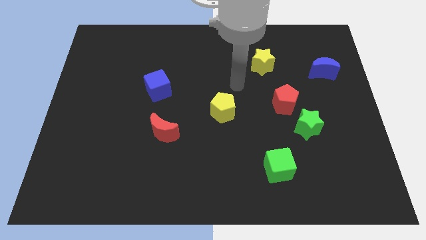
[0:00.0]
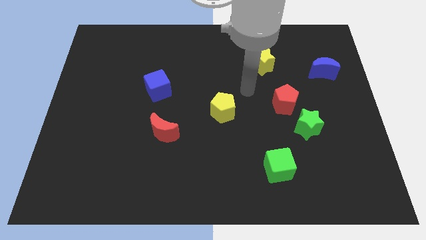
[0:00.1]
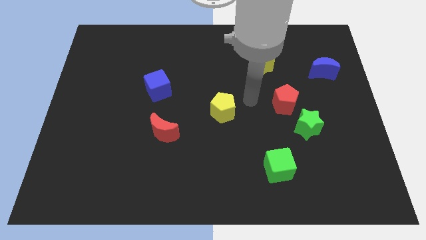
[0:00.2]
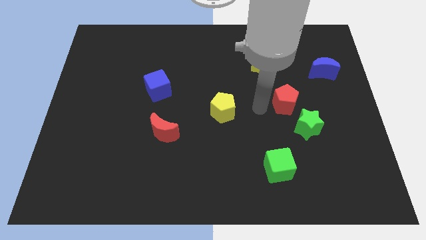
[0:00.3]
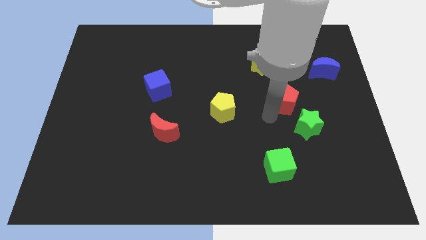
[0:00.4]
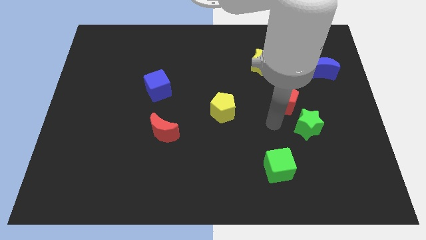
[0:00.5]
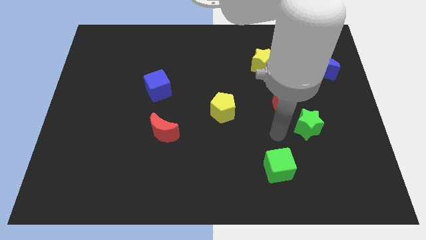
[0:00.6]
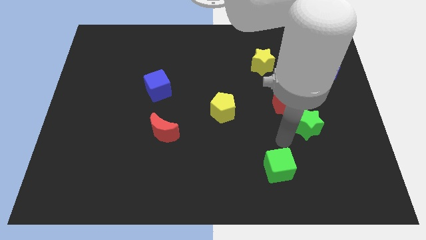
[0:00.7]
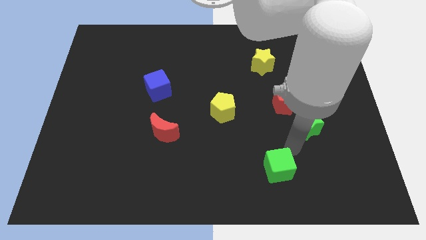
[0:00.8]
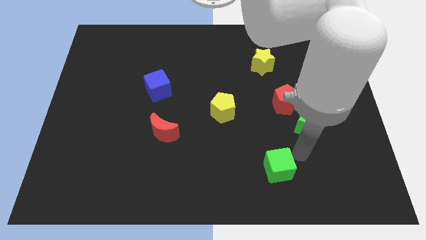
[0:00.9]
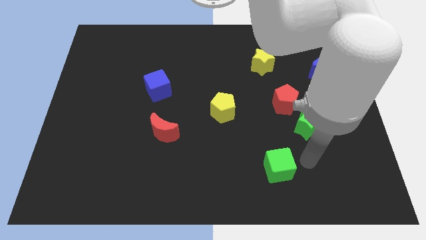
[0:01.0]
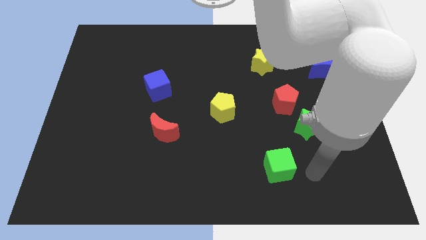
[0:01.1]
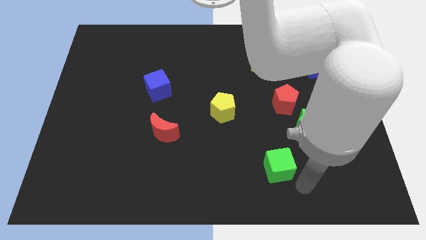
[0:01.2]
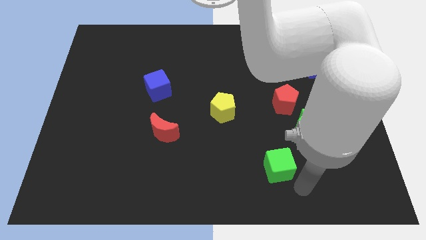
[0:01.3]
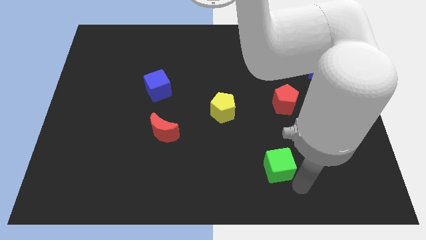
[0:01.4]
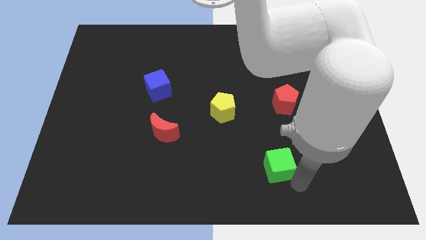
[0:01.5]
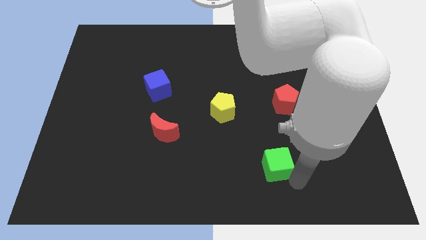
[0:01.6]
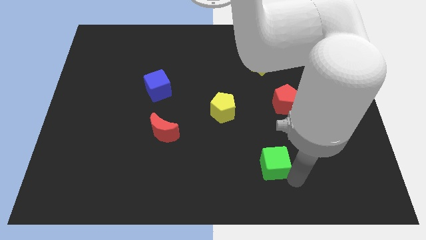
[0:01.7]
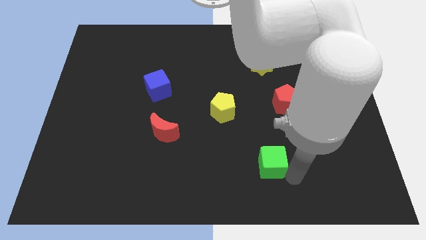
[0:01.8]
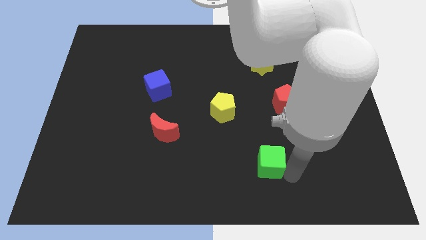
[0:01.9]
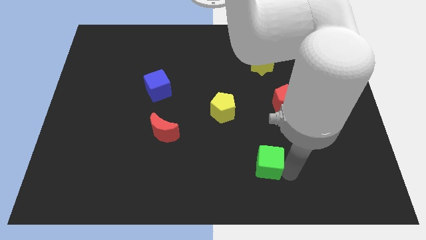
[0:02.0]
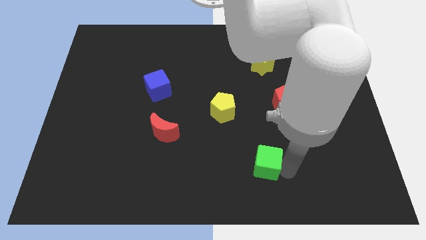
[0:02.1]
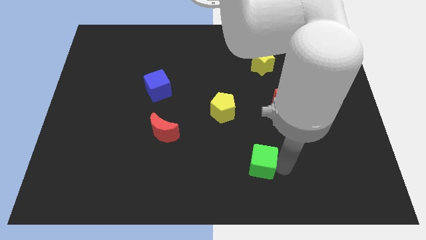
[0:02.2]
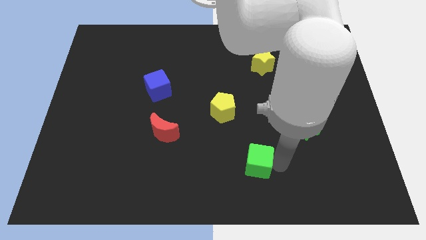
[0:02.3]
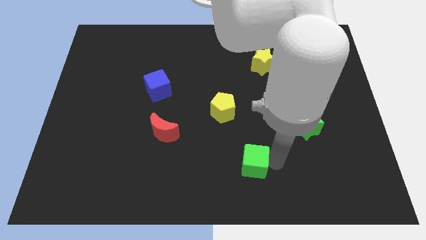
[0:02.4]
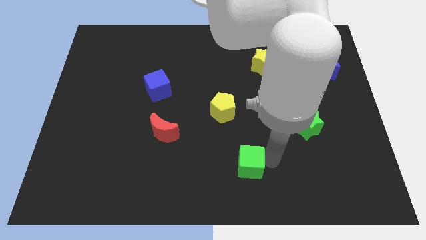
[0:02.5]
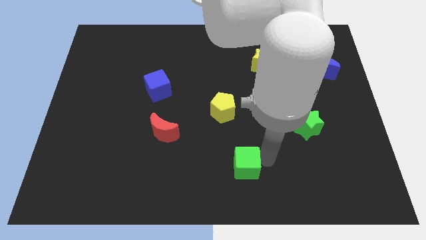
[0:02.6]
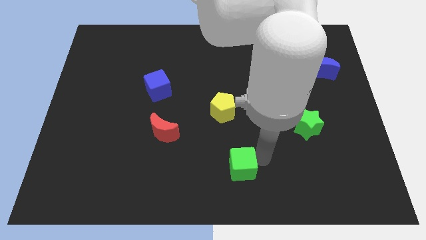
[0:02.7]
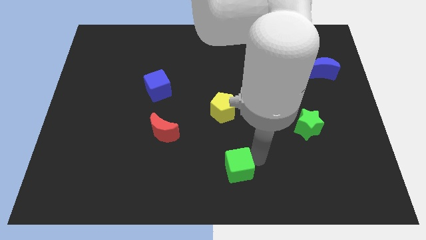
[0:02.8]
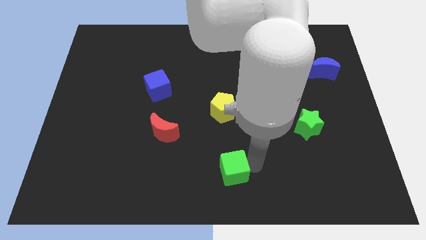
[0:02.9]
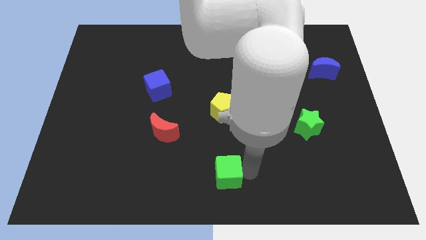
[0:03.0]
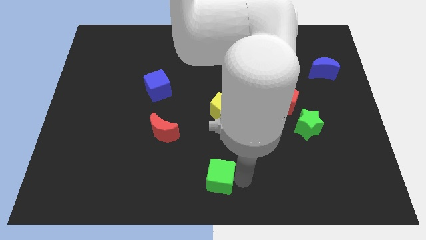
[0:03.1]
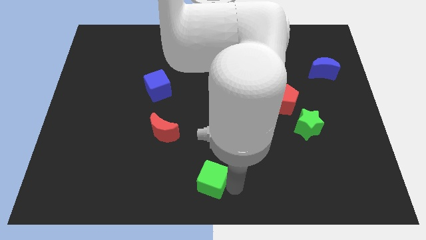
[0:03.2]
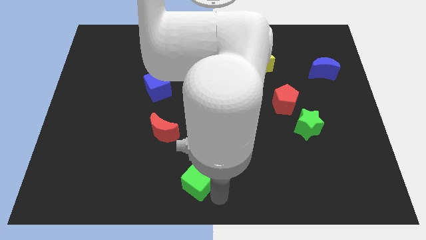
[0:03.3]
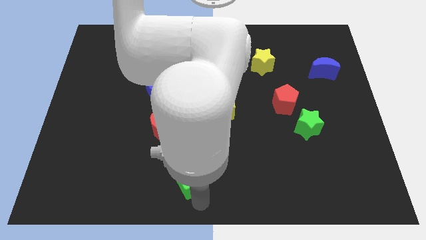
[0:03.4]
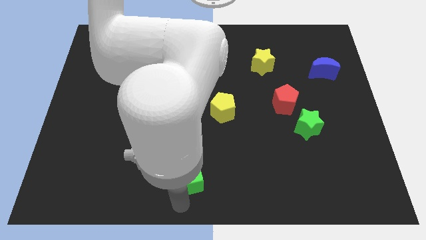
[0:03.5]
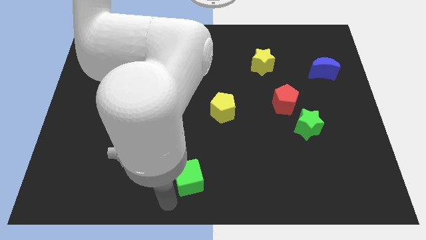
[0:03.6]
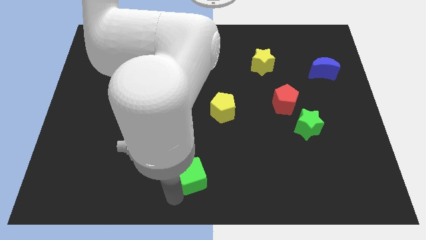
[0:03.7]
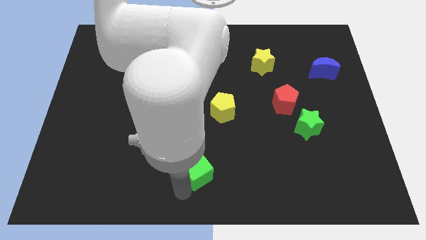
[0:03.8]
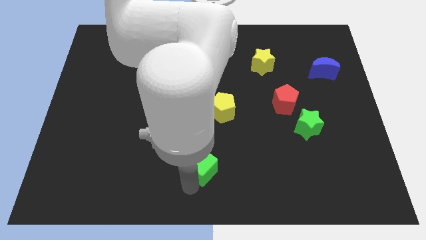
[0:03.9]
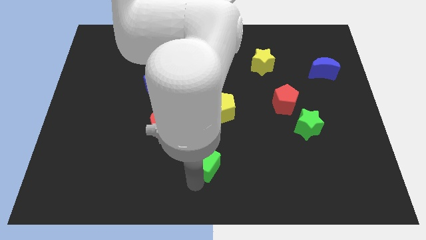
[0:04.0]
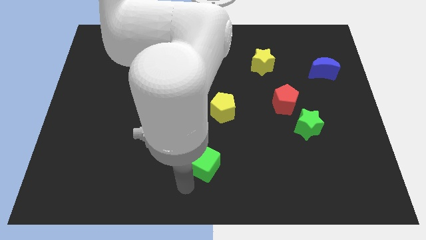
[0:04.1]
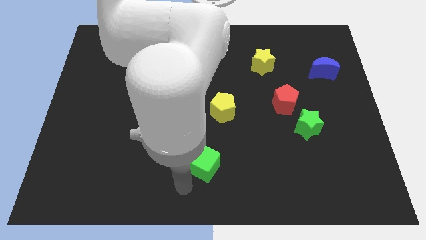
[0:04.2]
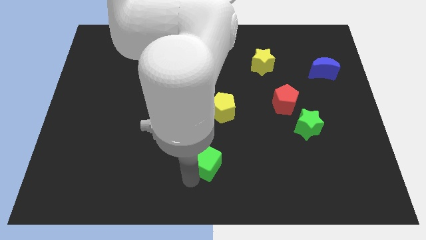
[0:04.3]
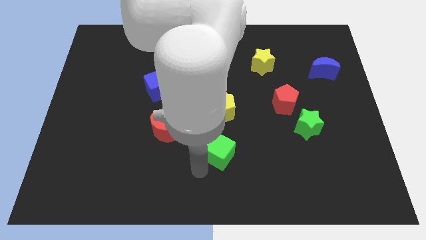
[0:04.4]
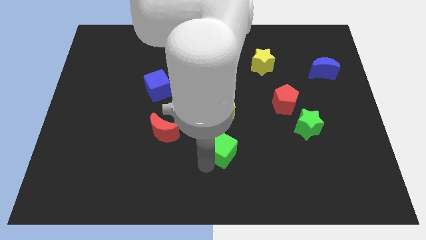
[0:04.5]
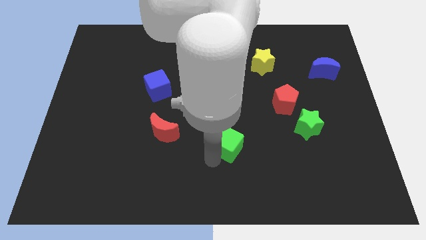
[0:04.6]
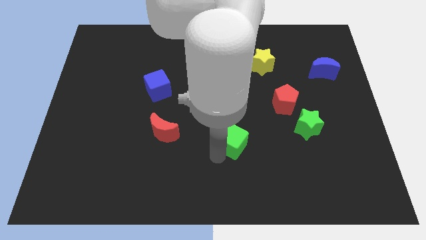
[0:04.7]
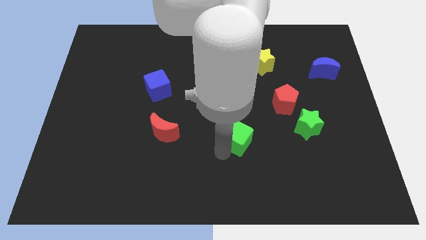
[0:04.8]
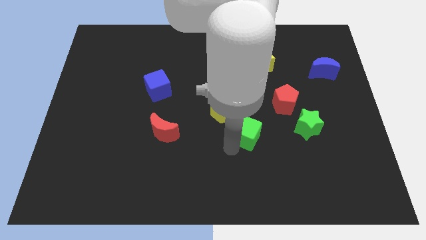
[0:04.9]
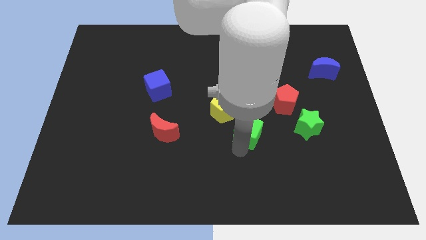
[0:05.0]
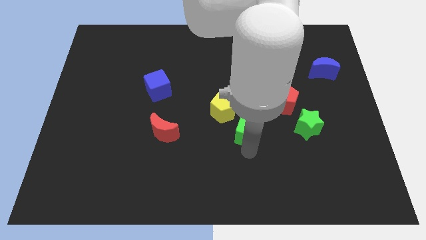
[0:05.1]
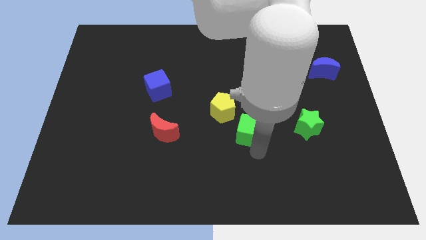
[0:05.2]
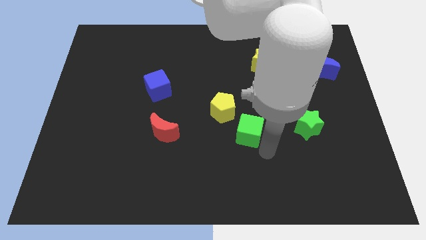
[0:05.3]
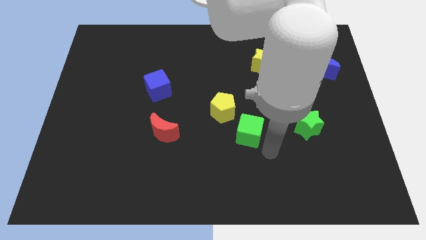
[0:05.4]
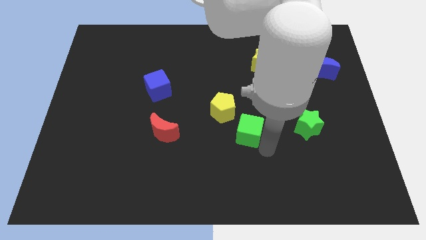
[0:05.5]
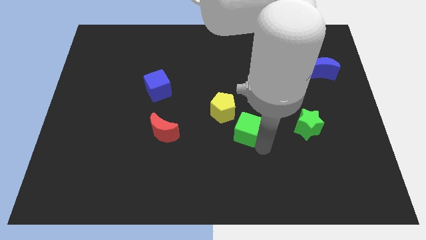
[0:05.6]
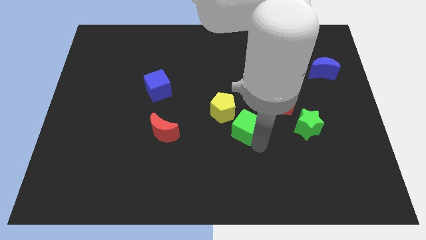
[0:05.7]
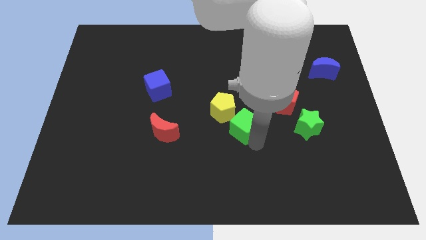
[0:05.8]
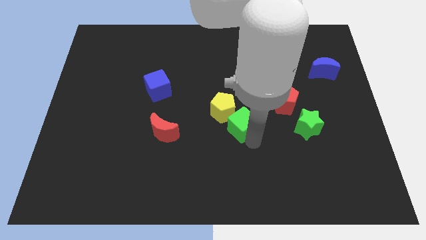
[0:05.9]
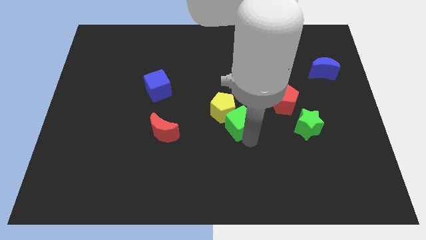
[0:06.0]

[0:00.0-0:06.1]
slide the green cube towards the yellow pentagon
